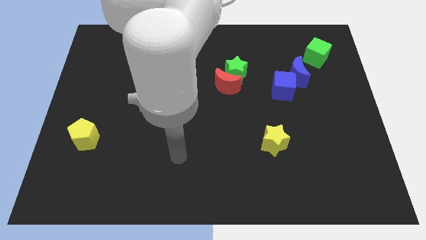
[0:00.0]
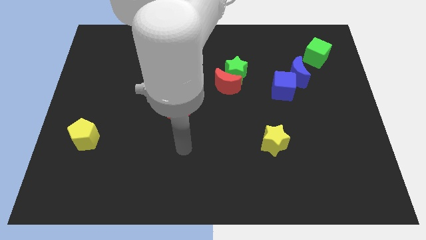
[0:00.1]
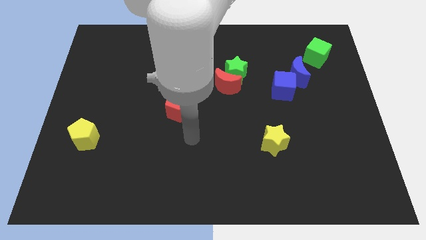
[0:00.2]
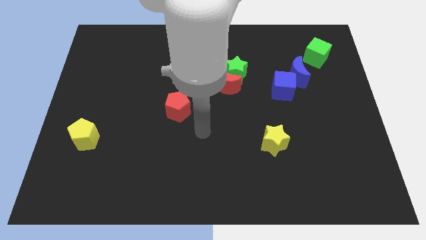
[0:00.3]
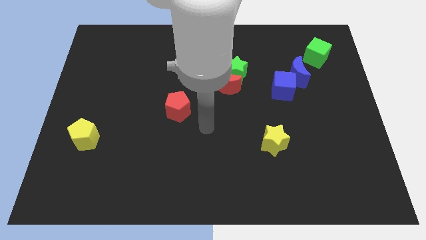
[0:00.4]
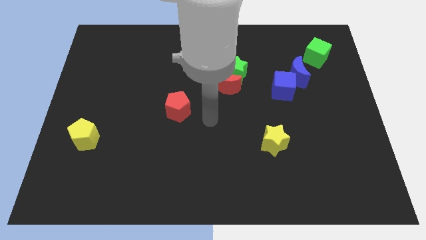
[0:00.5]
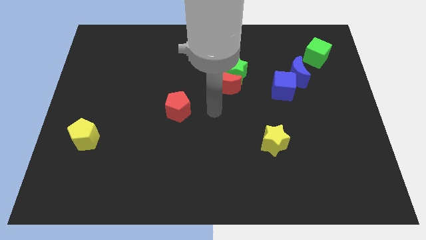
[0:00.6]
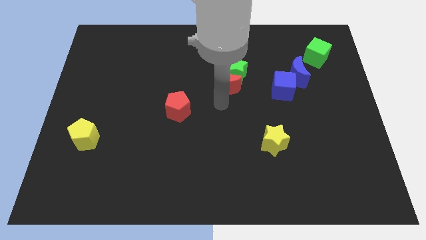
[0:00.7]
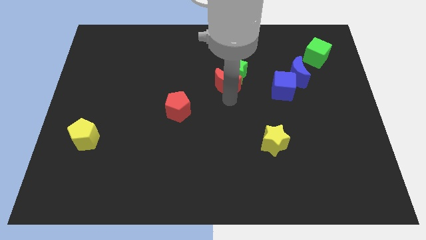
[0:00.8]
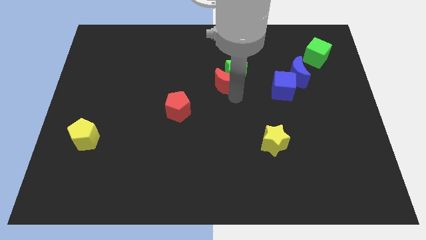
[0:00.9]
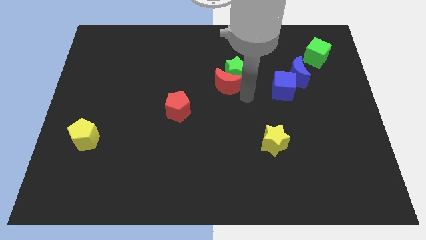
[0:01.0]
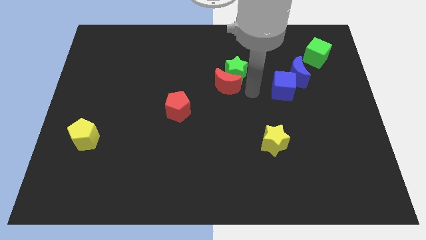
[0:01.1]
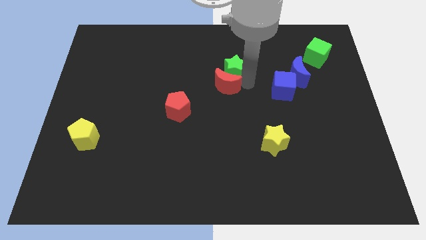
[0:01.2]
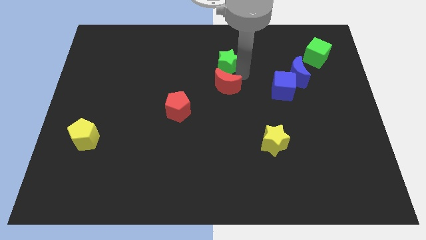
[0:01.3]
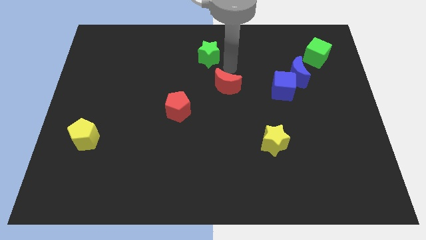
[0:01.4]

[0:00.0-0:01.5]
separate the red moon from the green star

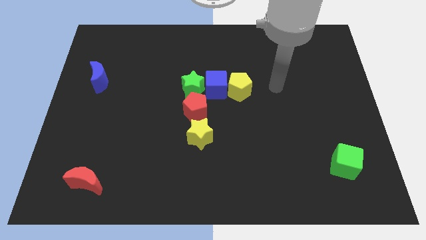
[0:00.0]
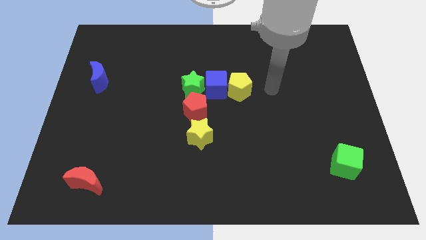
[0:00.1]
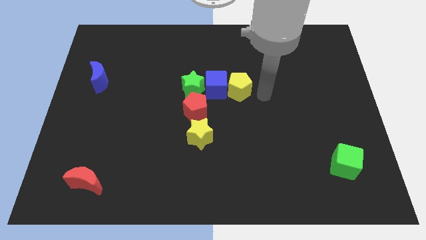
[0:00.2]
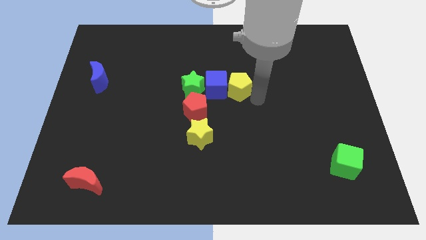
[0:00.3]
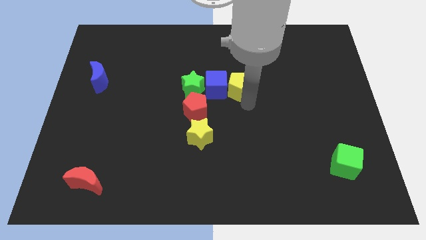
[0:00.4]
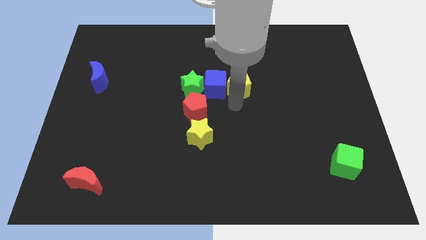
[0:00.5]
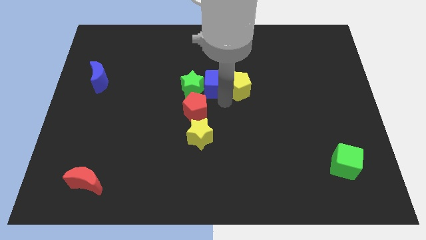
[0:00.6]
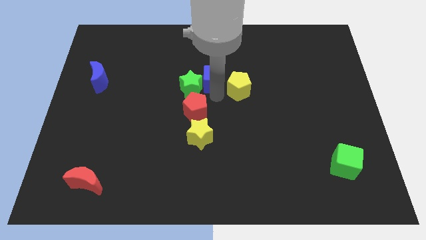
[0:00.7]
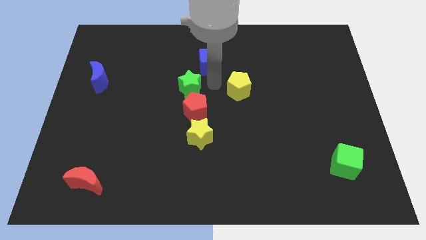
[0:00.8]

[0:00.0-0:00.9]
pull the yellow pentagon apart from the blue cube

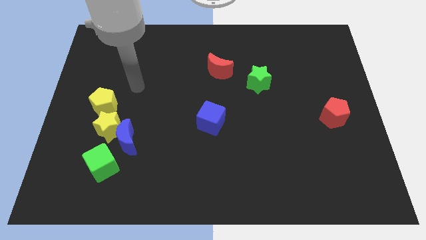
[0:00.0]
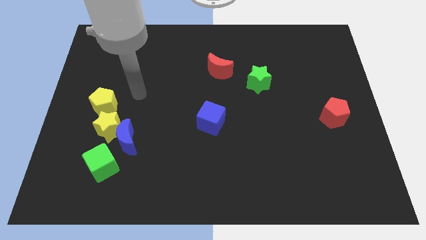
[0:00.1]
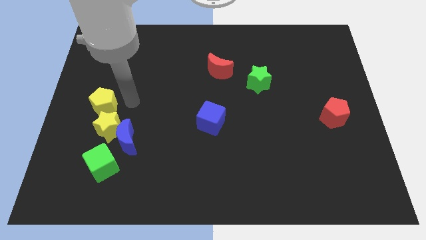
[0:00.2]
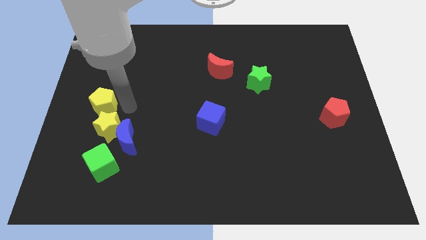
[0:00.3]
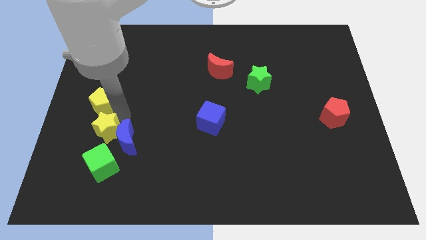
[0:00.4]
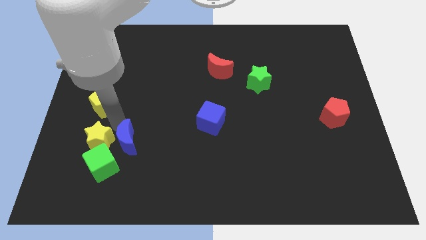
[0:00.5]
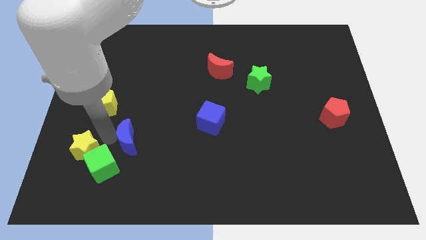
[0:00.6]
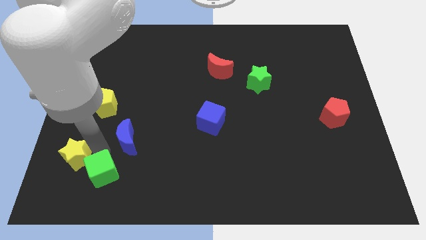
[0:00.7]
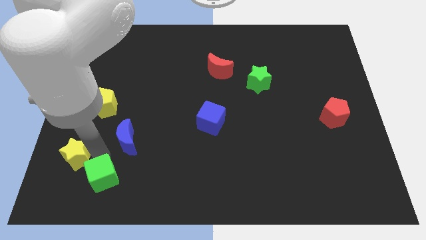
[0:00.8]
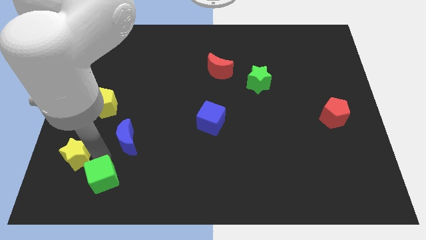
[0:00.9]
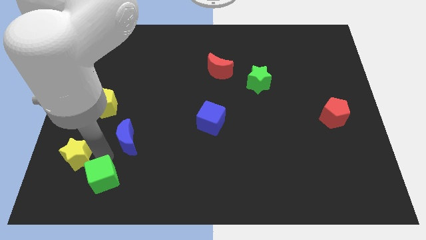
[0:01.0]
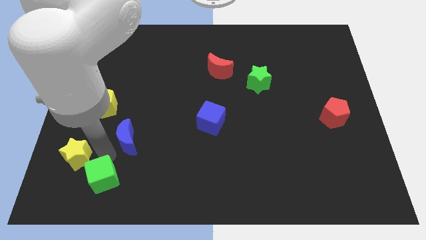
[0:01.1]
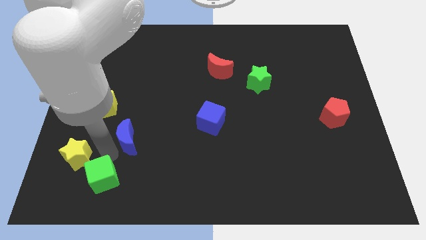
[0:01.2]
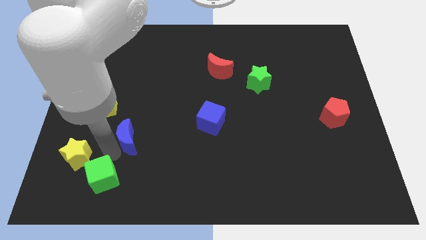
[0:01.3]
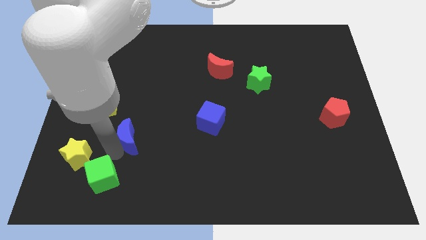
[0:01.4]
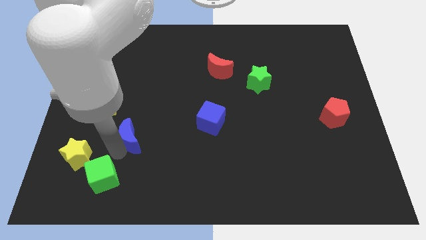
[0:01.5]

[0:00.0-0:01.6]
move the blue moon away from the yellow star and green cube

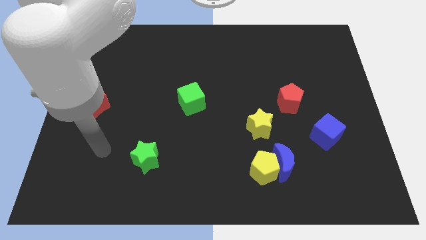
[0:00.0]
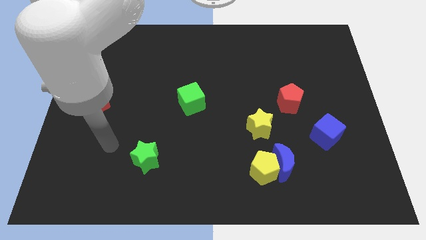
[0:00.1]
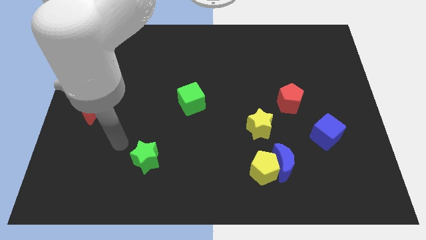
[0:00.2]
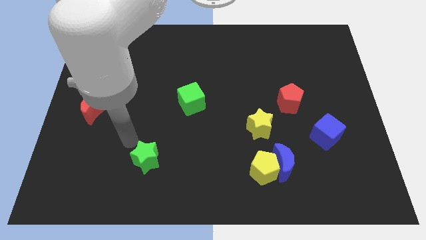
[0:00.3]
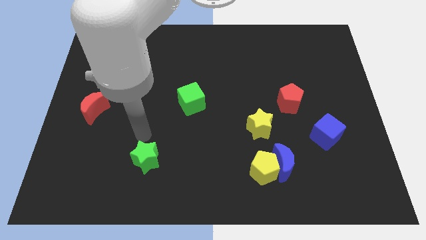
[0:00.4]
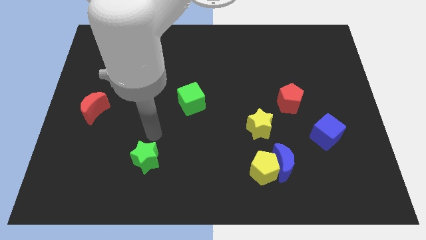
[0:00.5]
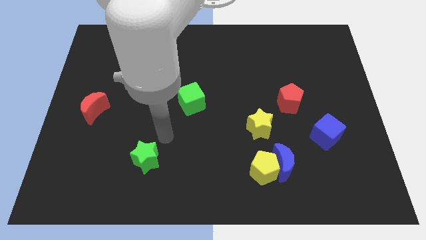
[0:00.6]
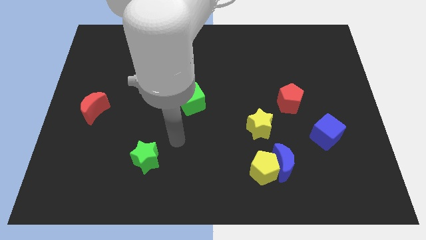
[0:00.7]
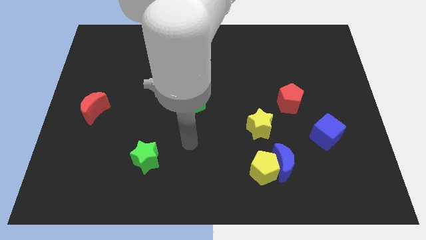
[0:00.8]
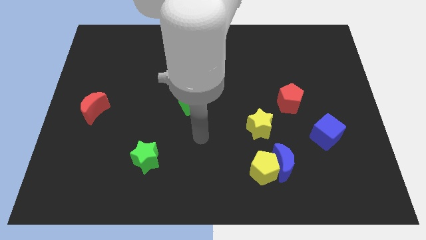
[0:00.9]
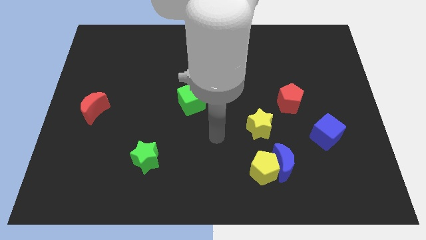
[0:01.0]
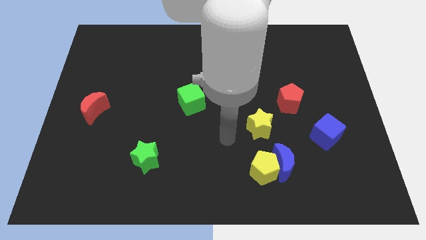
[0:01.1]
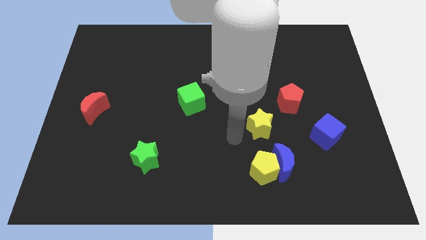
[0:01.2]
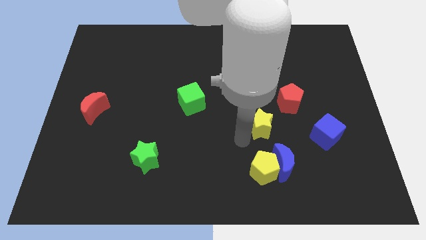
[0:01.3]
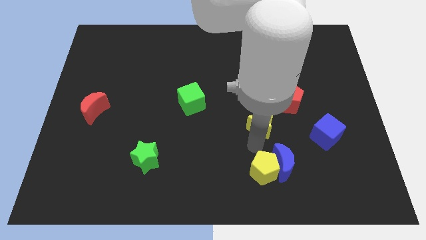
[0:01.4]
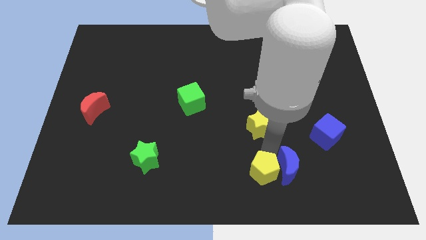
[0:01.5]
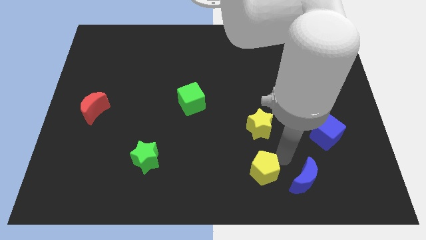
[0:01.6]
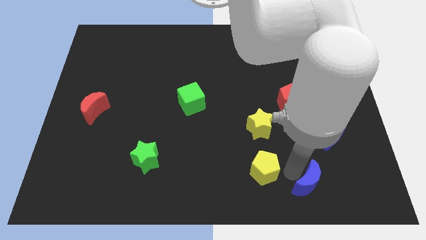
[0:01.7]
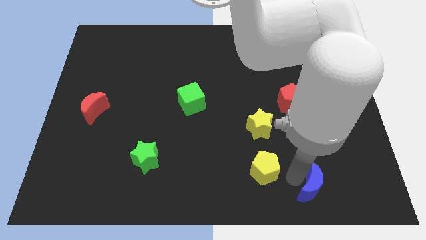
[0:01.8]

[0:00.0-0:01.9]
pull the yellow pentagon apart from the blue moon

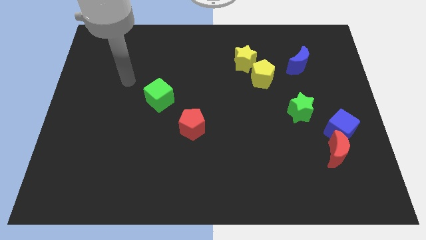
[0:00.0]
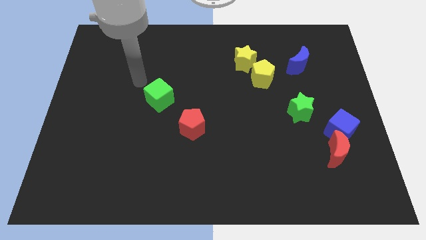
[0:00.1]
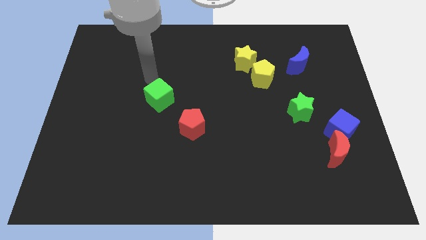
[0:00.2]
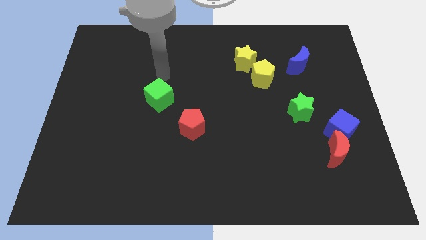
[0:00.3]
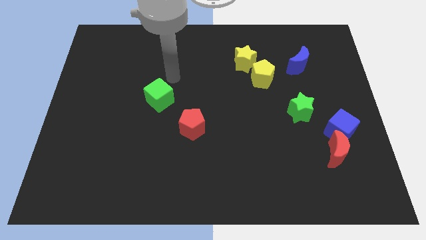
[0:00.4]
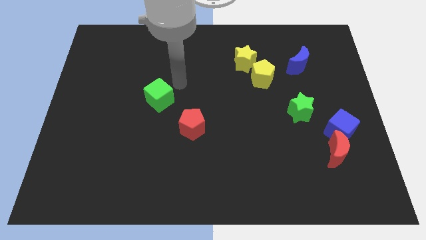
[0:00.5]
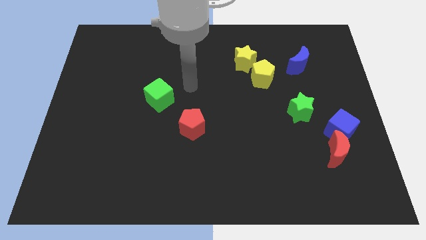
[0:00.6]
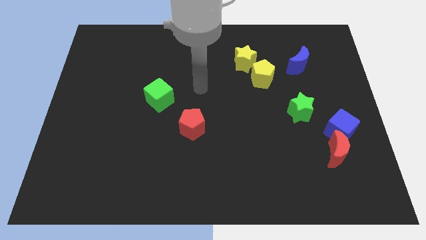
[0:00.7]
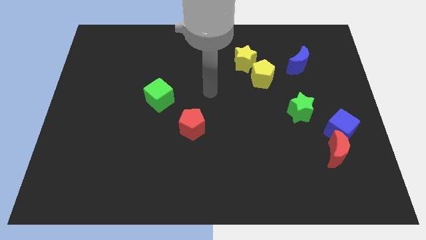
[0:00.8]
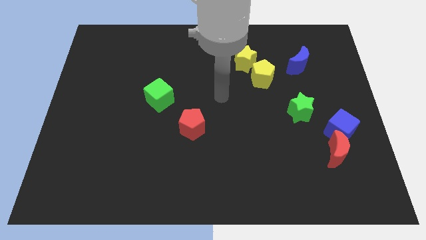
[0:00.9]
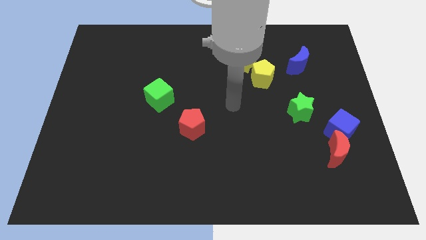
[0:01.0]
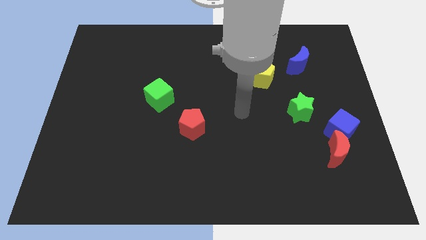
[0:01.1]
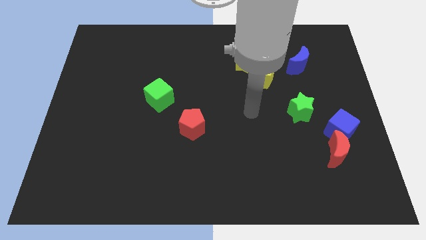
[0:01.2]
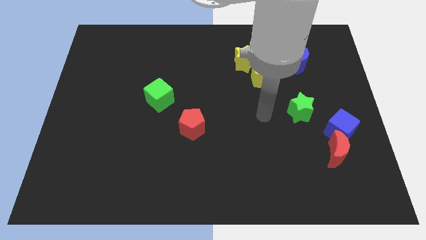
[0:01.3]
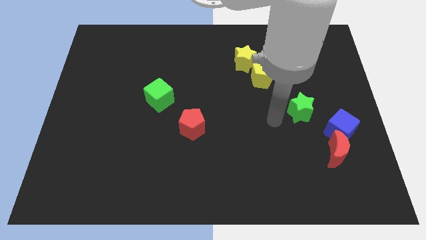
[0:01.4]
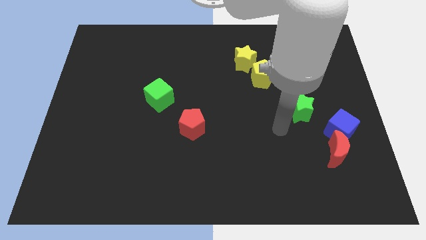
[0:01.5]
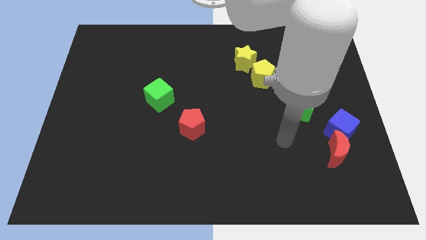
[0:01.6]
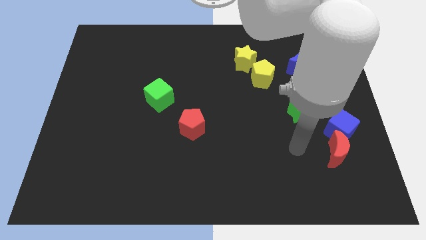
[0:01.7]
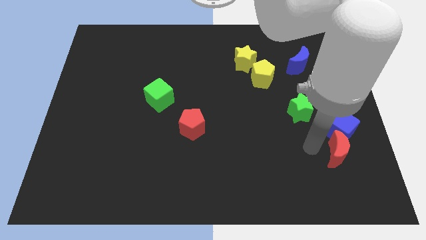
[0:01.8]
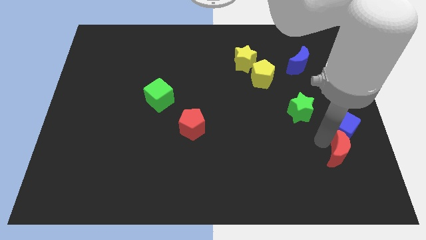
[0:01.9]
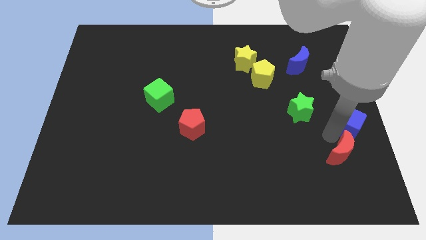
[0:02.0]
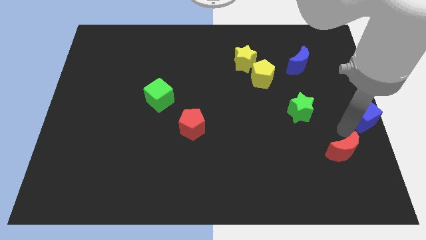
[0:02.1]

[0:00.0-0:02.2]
move the red moon away from the blue cube

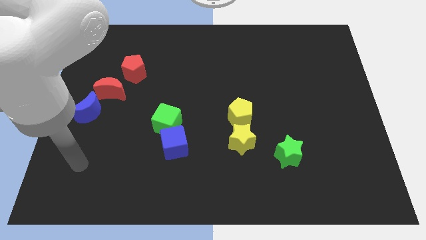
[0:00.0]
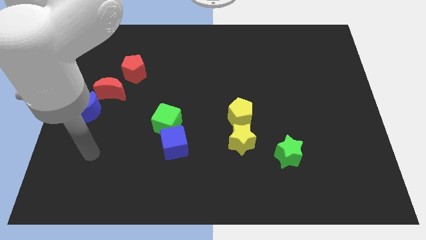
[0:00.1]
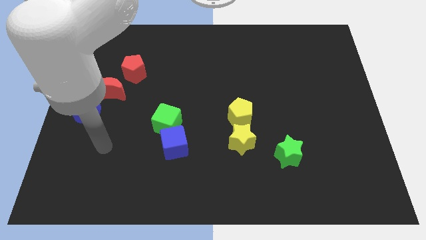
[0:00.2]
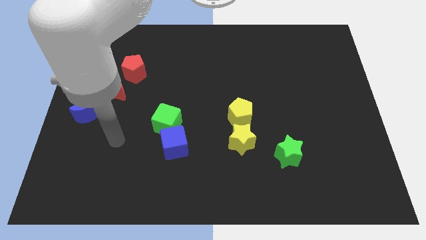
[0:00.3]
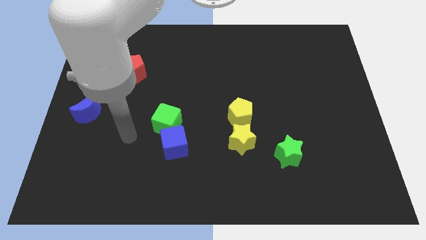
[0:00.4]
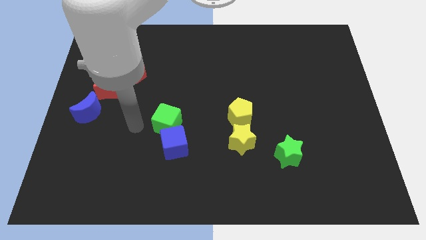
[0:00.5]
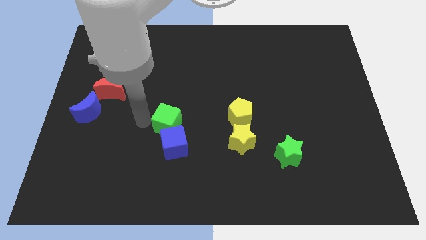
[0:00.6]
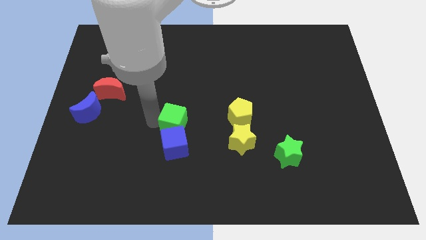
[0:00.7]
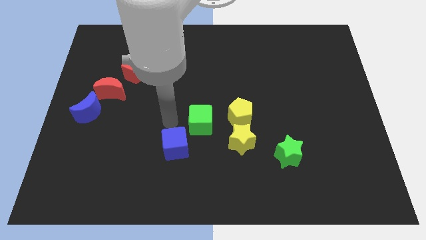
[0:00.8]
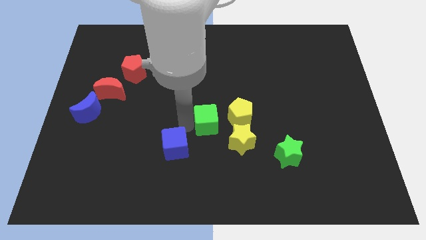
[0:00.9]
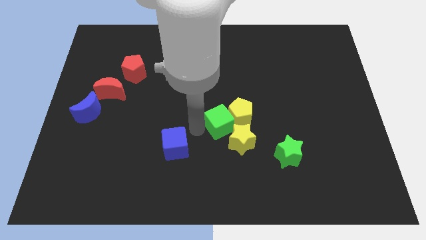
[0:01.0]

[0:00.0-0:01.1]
move the blue cube away from the green cube
